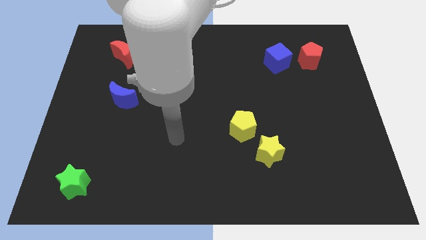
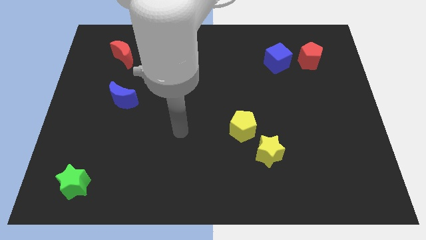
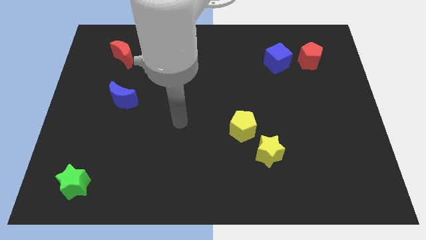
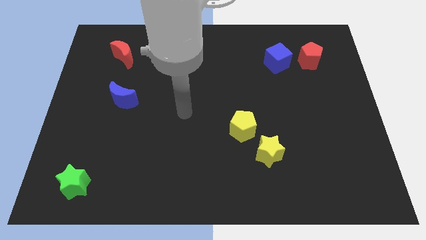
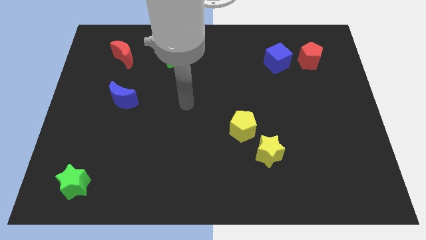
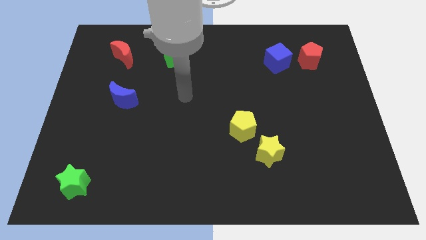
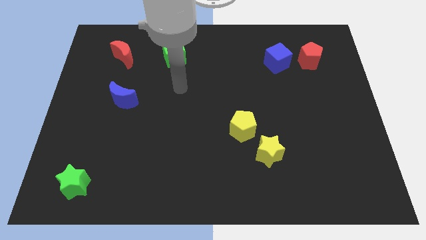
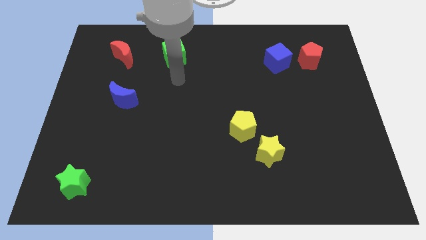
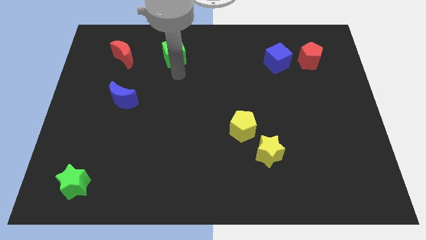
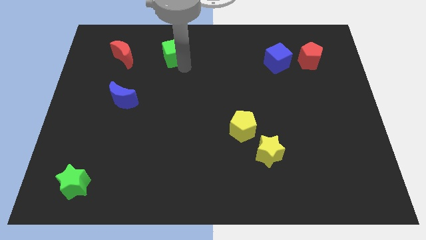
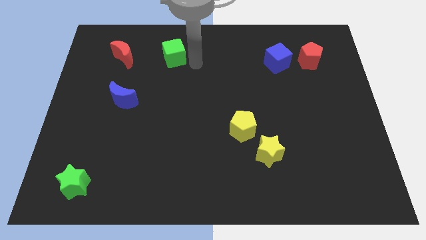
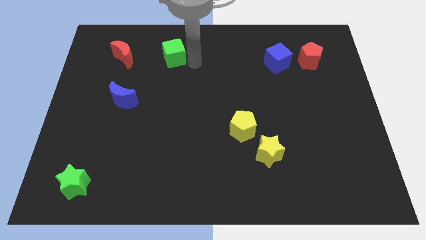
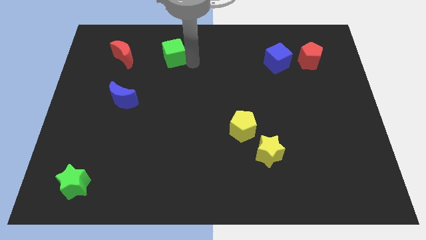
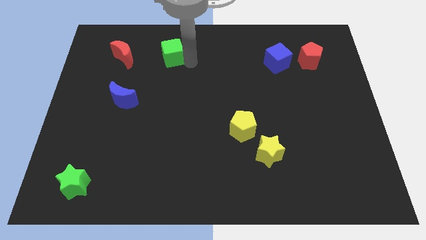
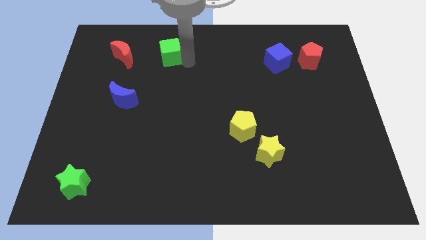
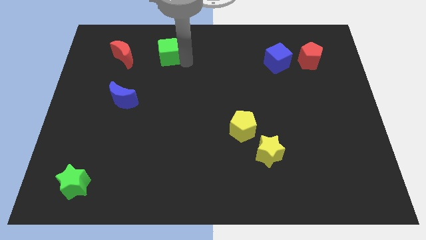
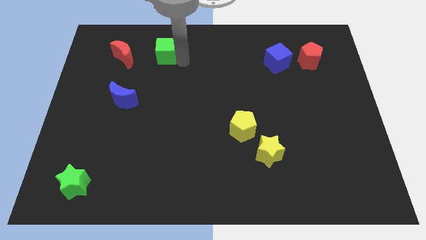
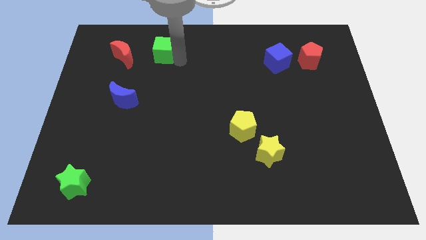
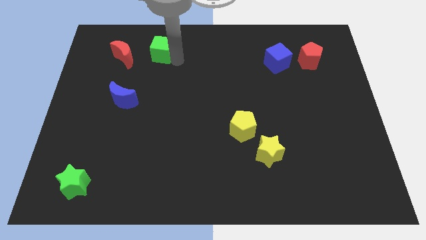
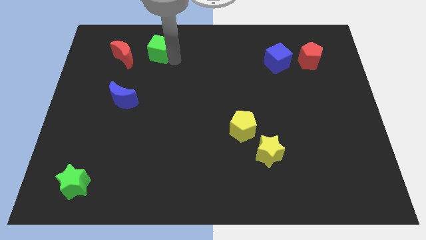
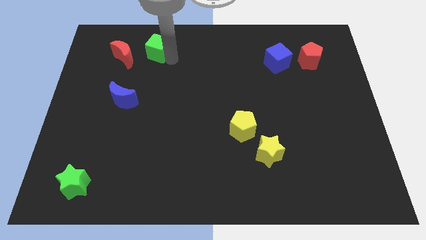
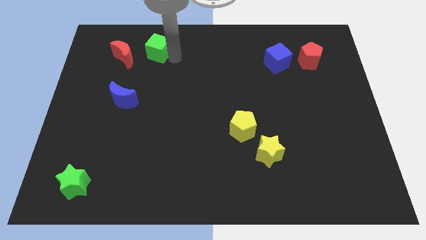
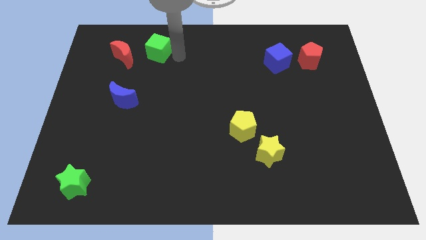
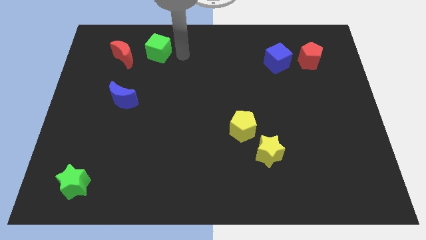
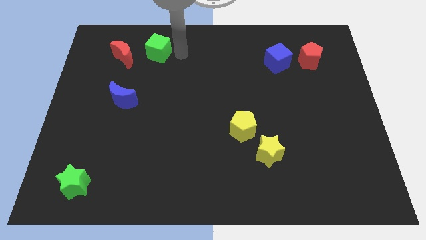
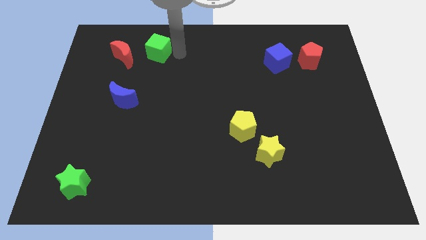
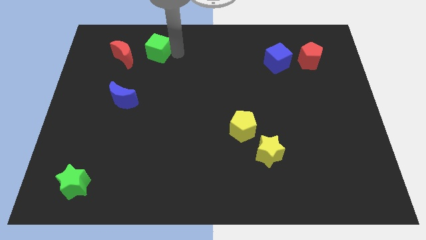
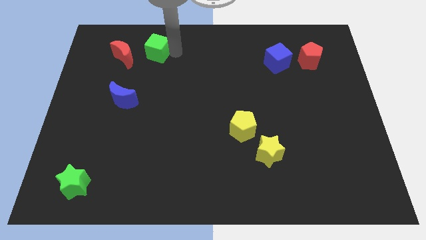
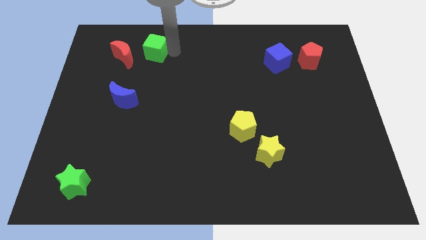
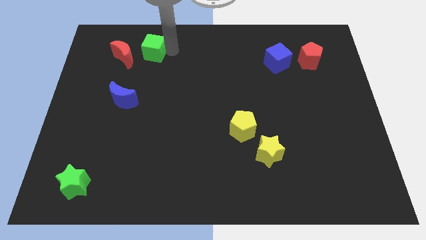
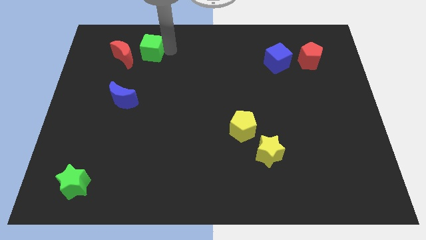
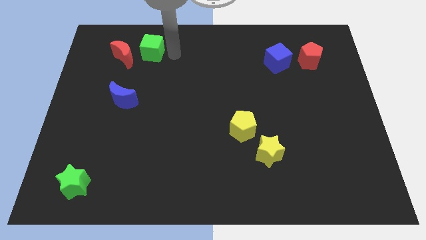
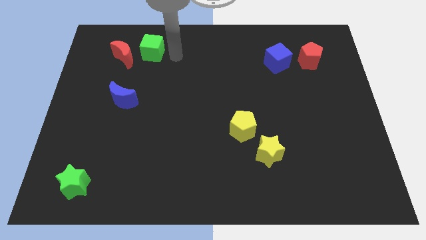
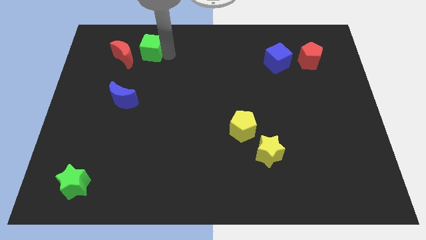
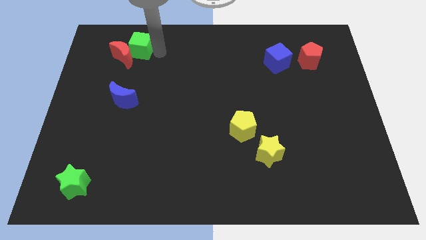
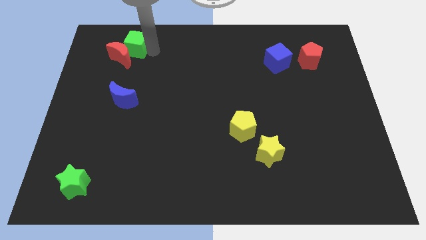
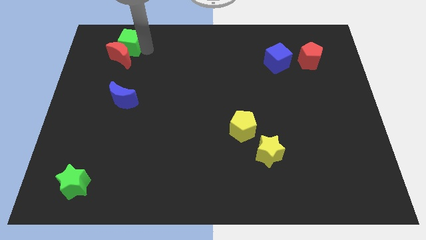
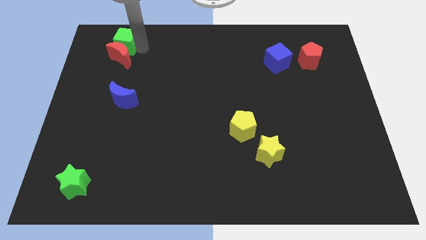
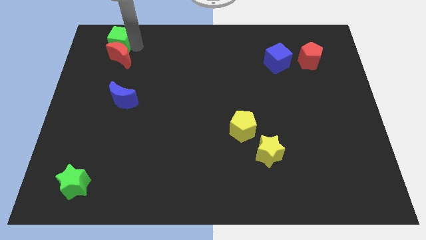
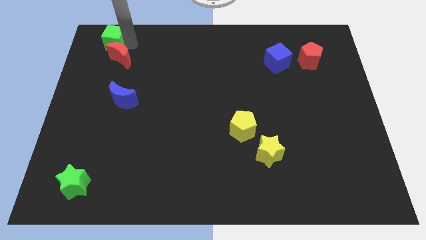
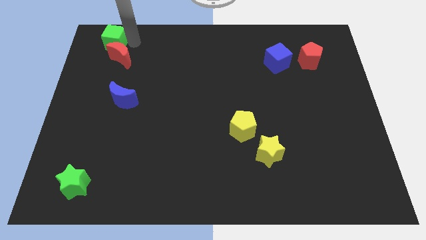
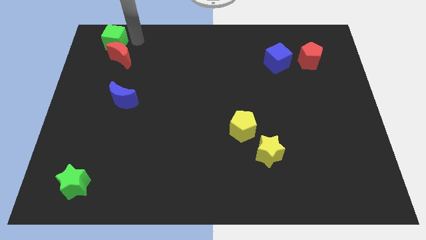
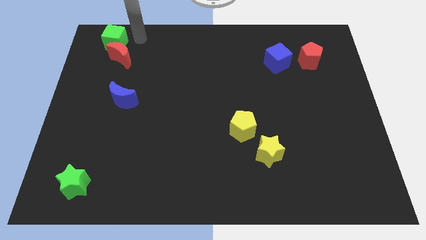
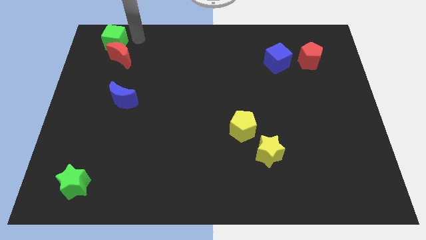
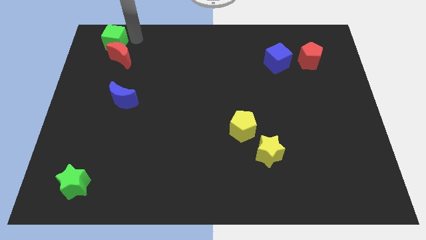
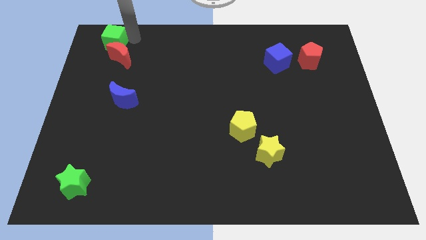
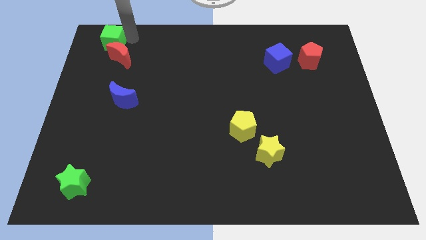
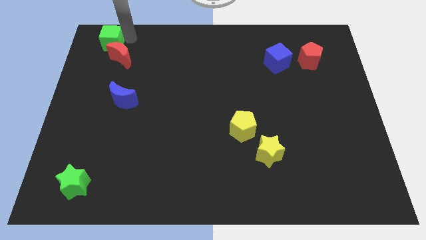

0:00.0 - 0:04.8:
slide the green cube to the top left corner

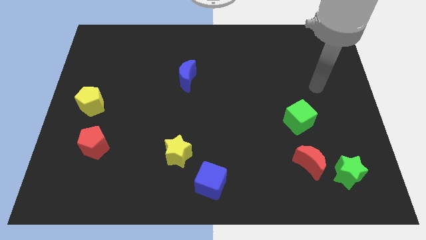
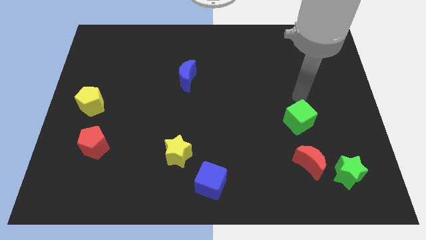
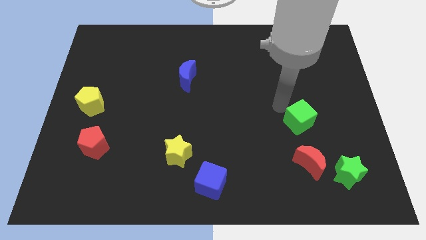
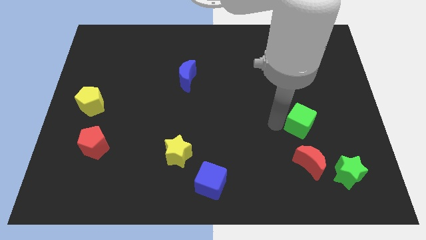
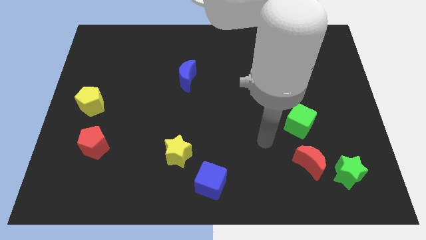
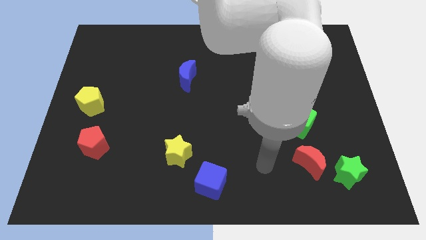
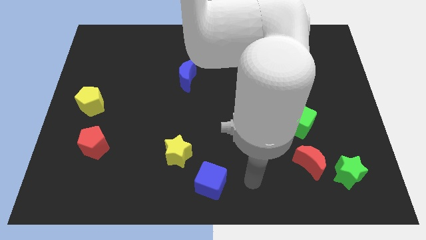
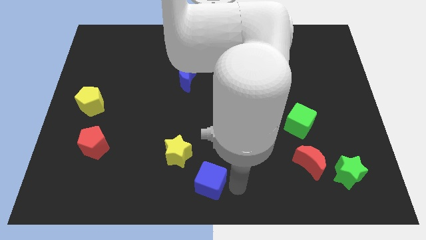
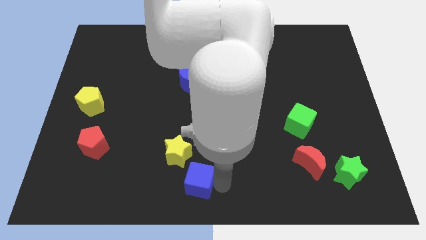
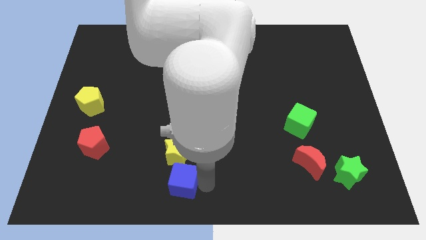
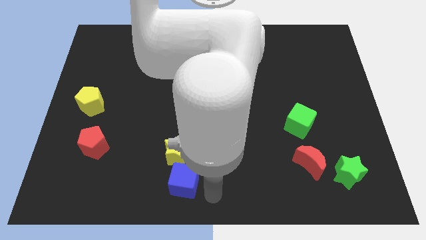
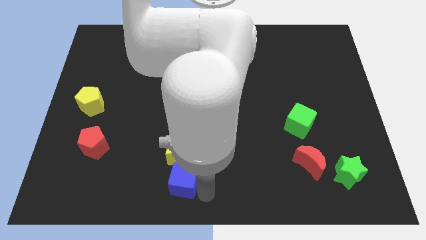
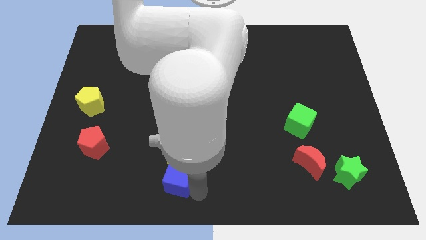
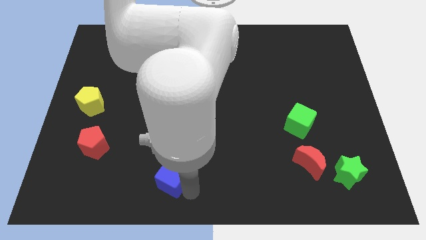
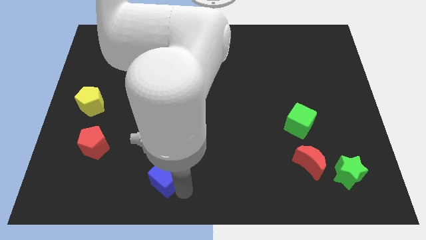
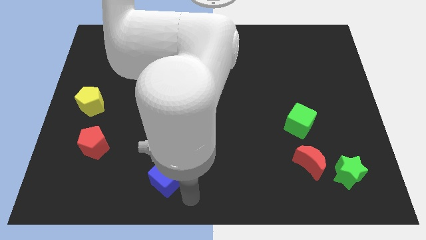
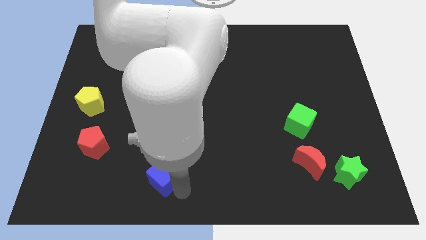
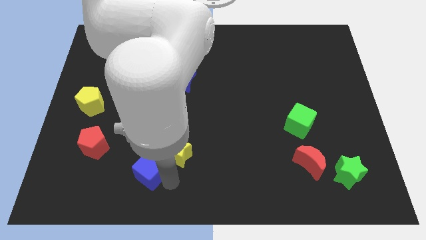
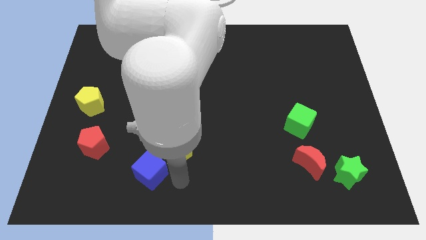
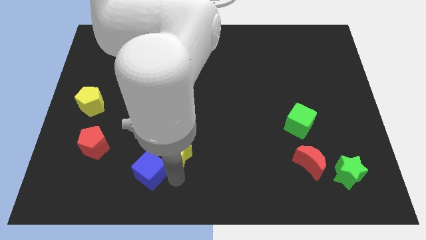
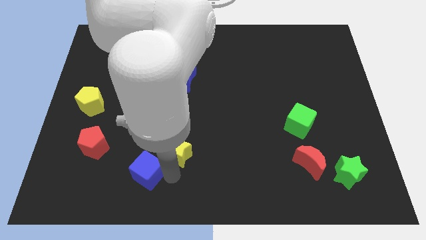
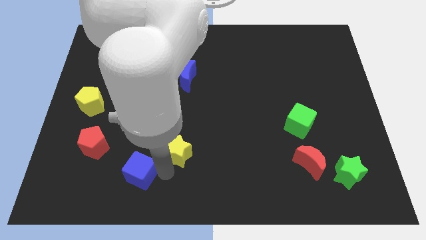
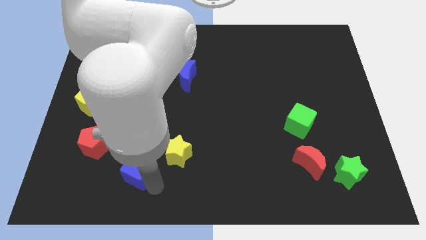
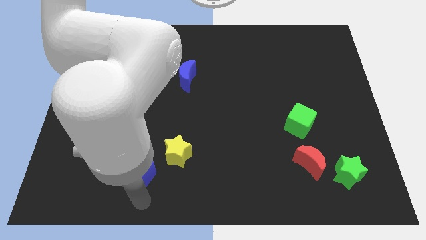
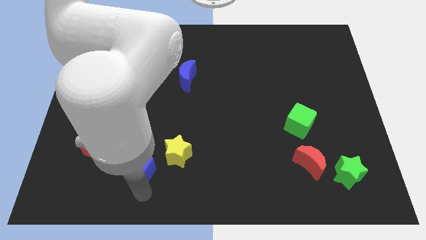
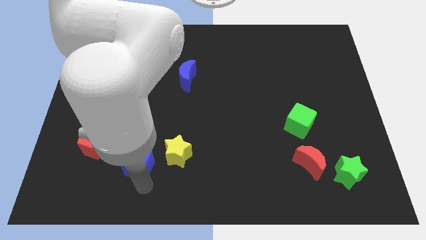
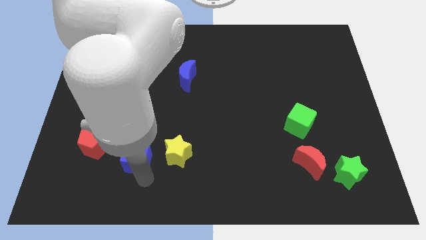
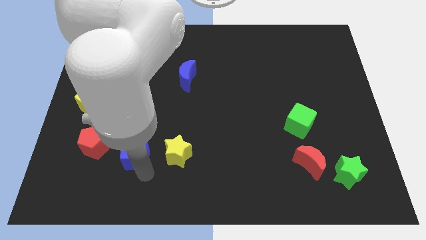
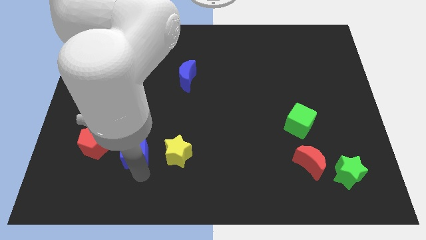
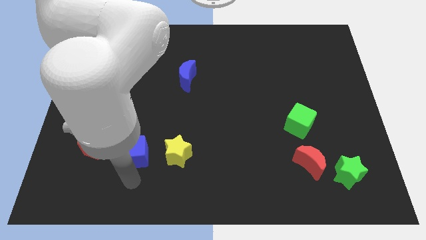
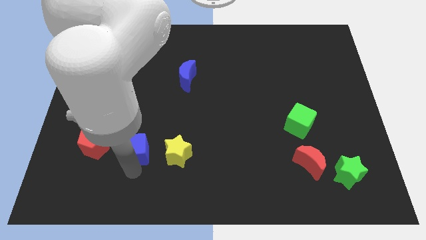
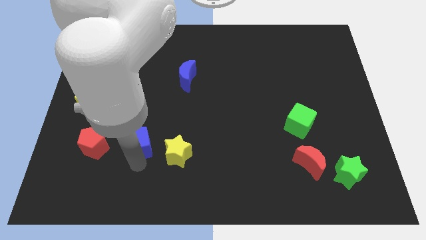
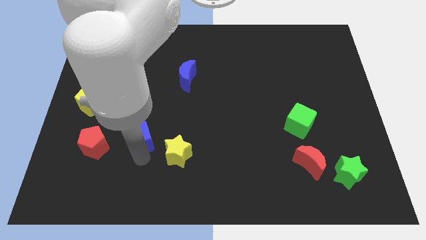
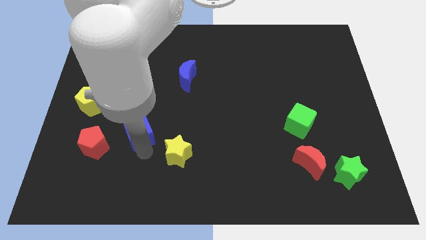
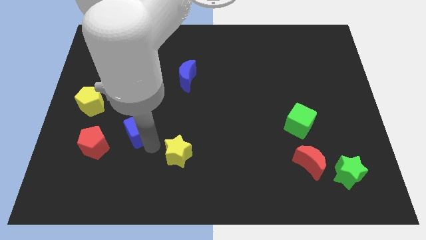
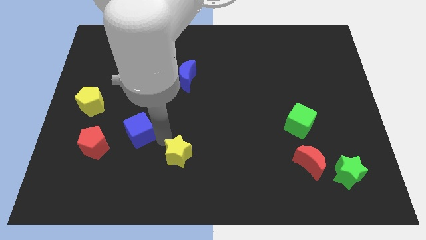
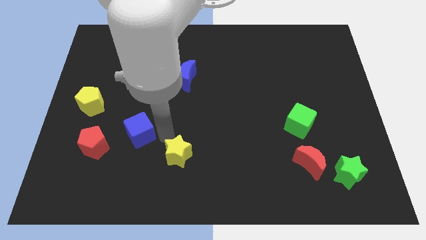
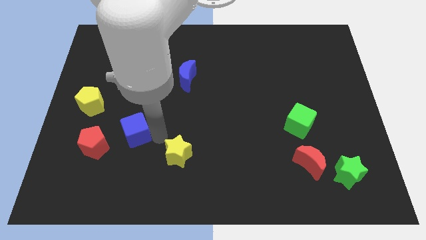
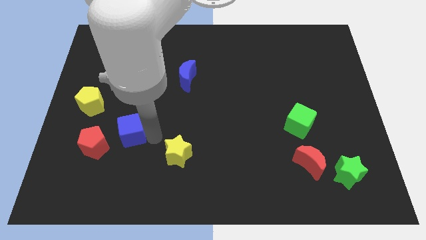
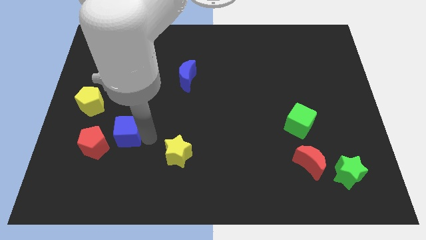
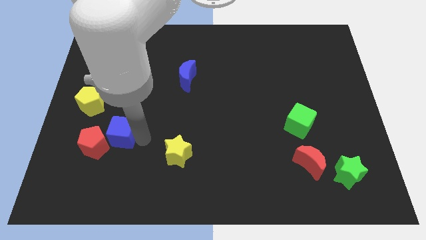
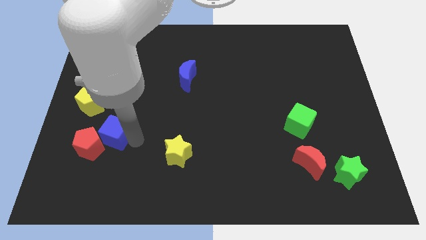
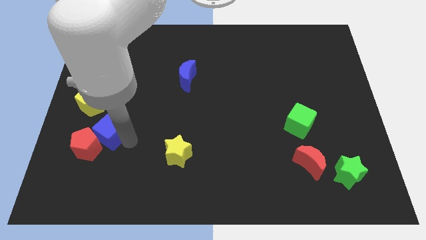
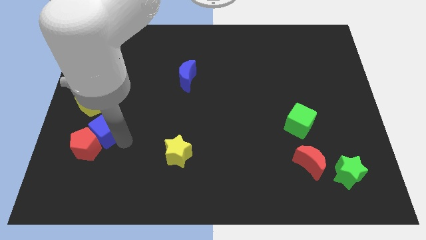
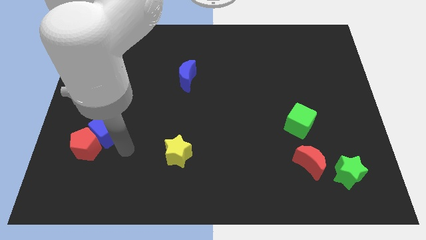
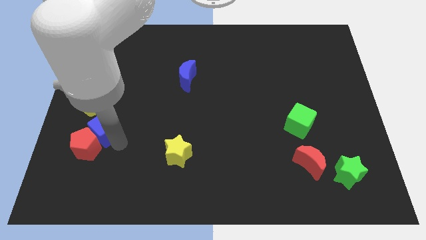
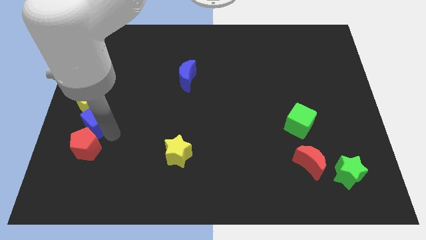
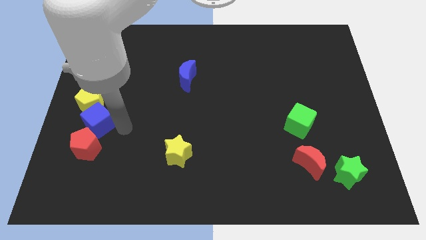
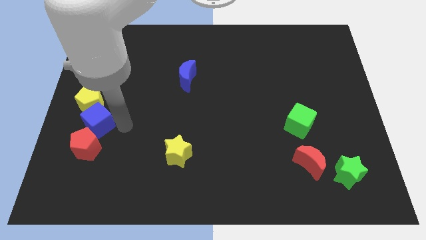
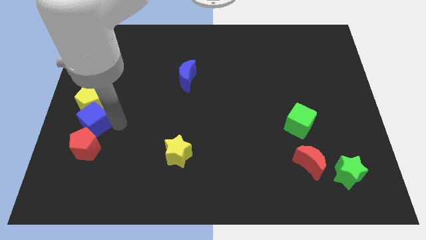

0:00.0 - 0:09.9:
push the blue cube to the left side of the board
